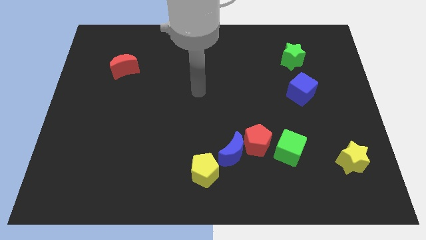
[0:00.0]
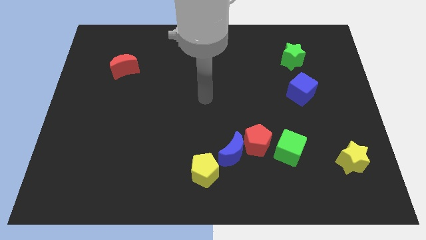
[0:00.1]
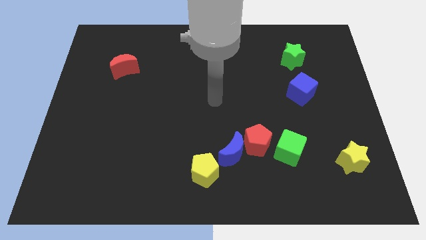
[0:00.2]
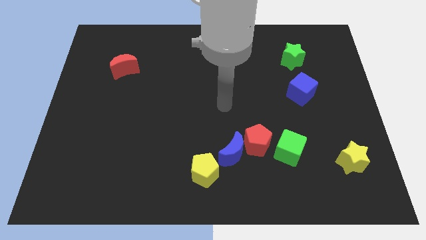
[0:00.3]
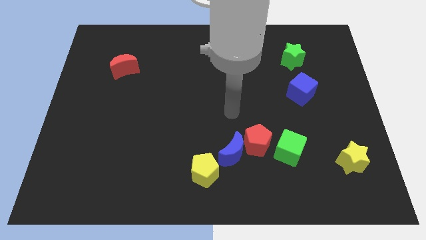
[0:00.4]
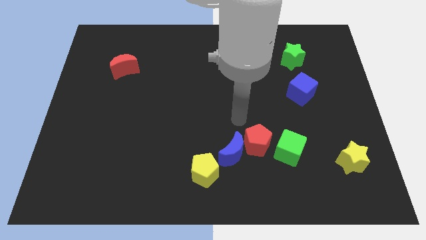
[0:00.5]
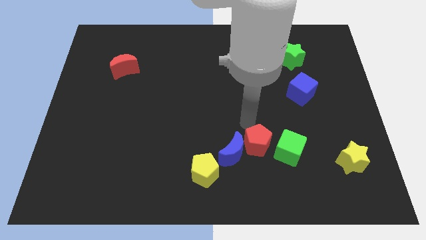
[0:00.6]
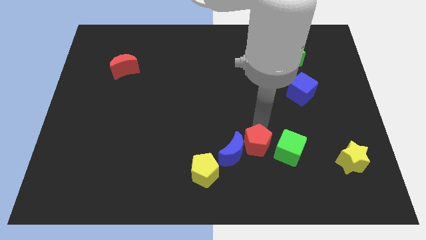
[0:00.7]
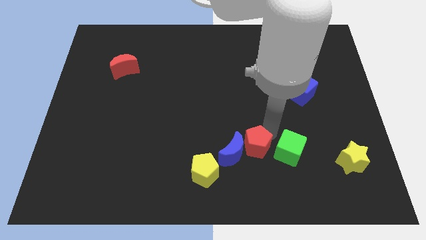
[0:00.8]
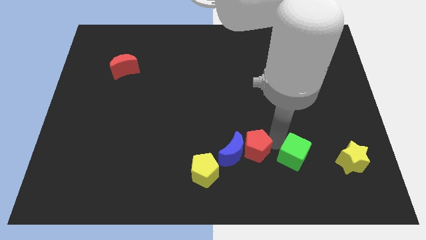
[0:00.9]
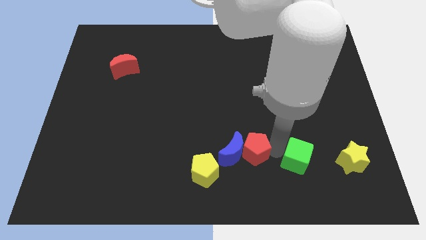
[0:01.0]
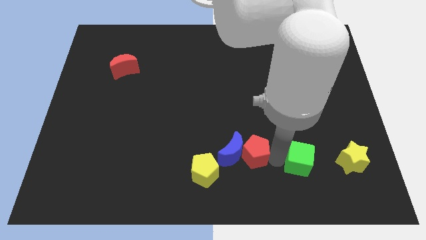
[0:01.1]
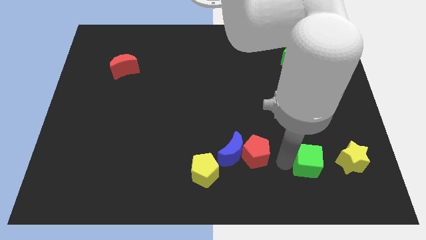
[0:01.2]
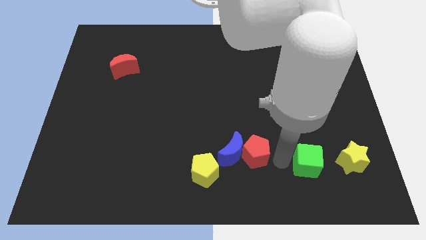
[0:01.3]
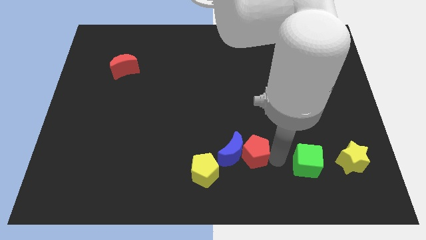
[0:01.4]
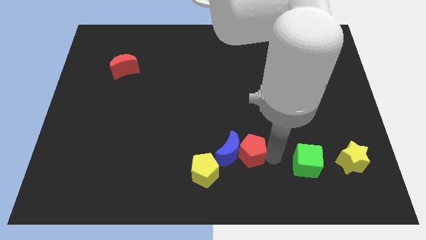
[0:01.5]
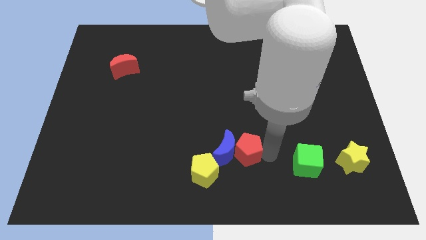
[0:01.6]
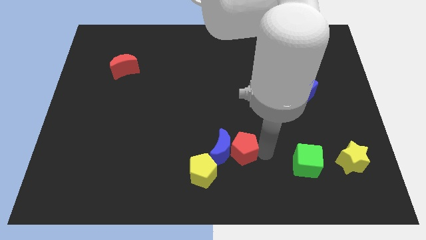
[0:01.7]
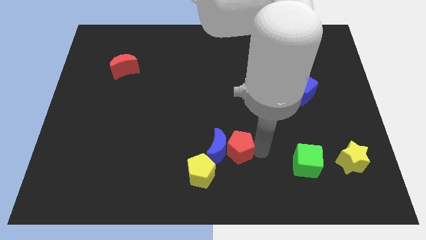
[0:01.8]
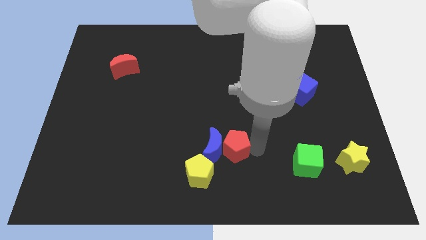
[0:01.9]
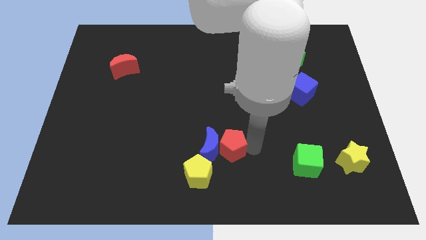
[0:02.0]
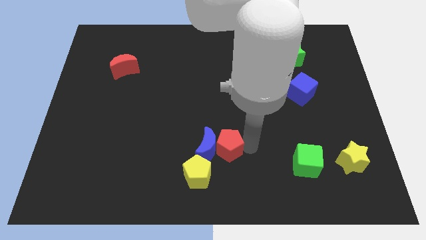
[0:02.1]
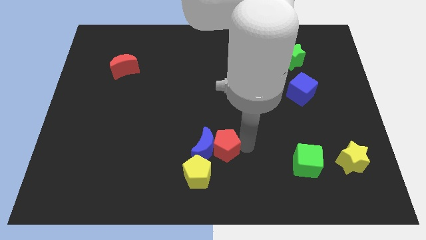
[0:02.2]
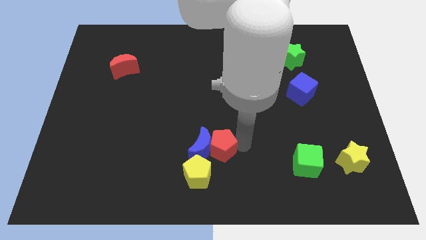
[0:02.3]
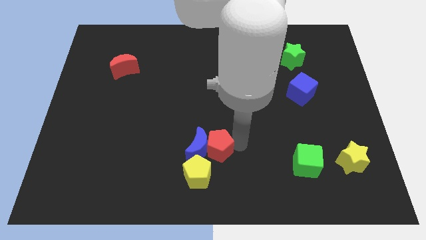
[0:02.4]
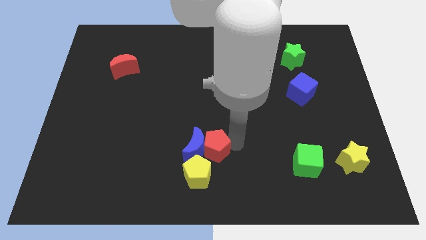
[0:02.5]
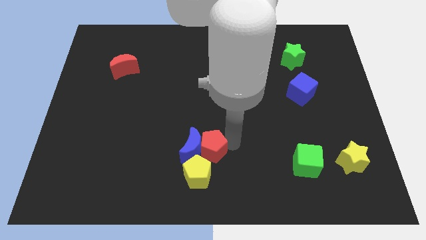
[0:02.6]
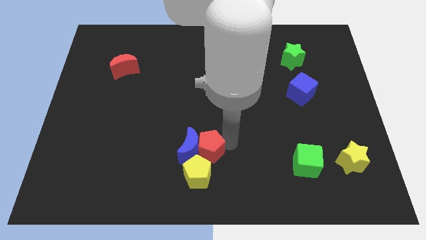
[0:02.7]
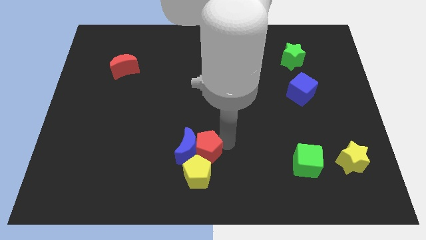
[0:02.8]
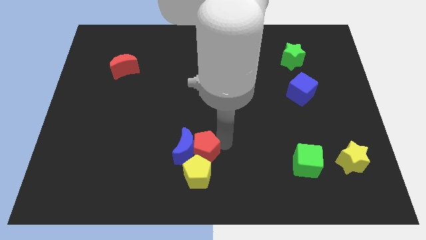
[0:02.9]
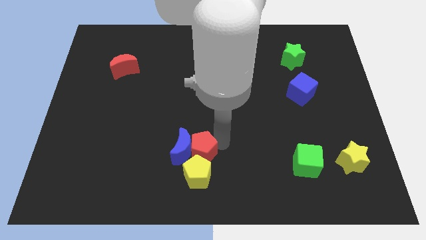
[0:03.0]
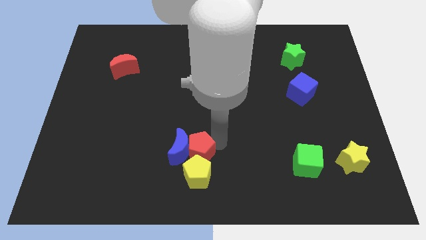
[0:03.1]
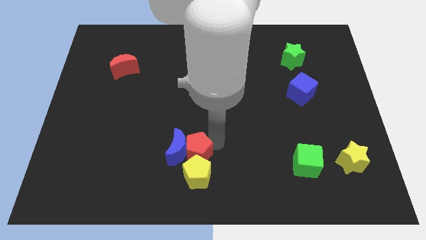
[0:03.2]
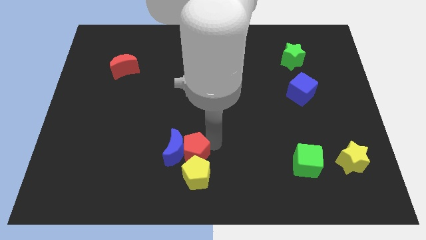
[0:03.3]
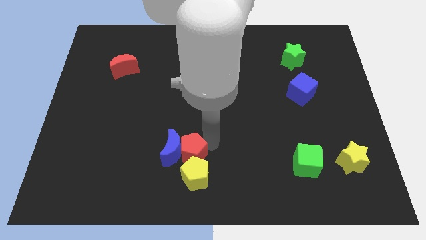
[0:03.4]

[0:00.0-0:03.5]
separate the red pentagon from the blue moon and green cube

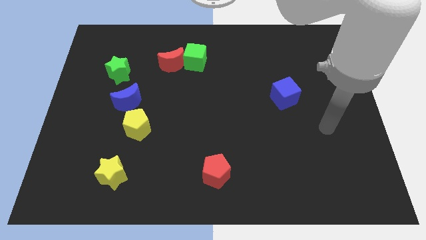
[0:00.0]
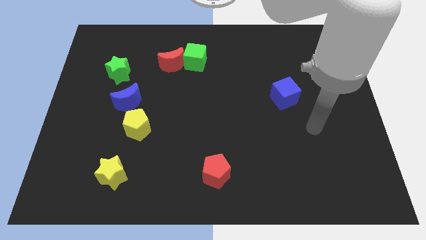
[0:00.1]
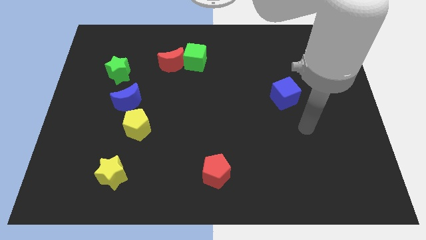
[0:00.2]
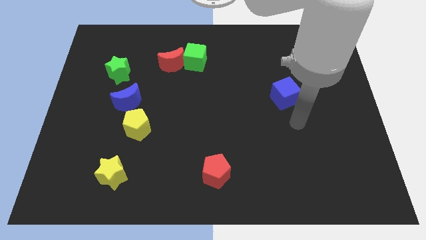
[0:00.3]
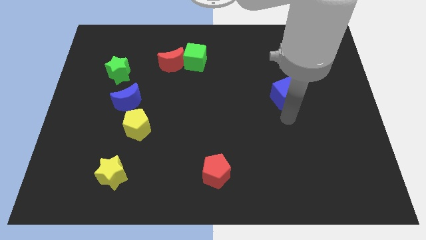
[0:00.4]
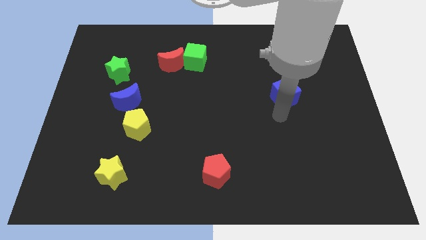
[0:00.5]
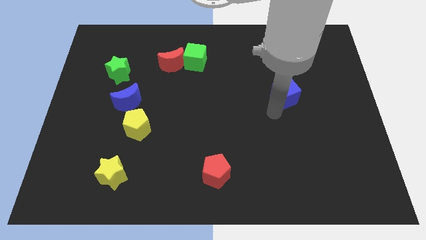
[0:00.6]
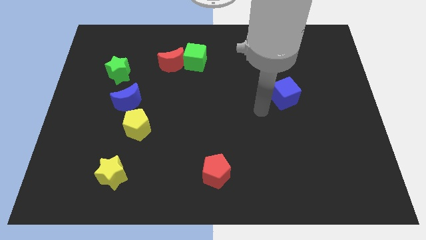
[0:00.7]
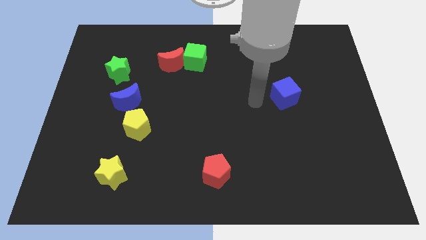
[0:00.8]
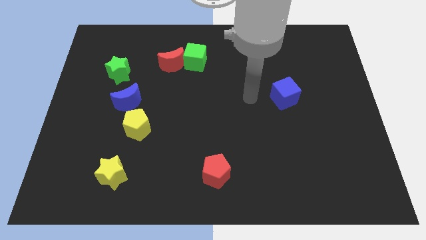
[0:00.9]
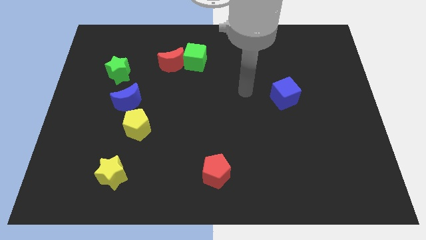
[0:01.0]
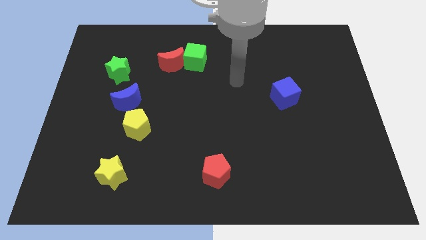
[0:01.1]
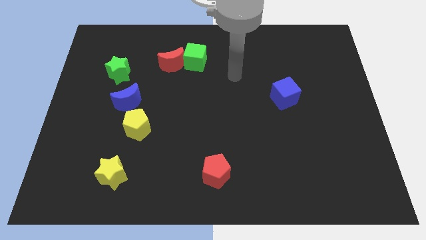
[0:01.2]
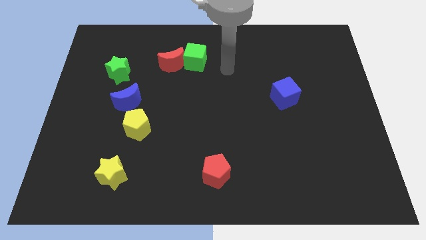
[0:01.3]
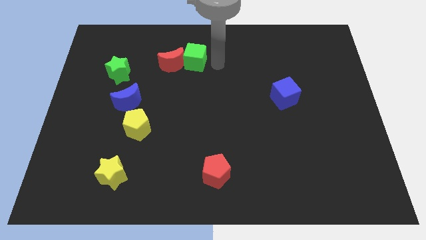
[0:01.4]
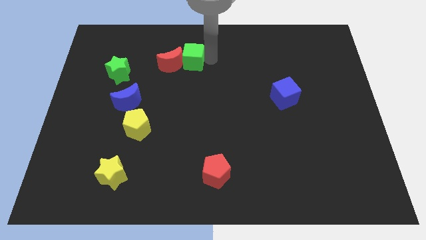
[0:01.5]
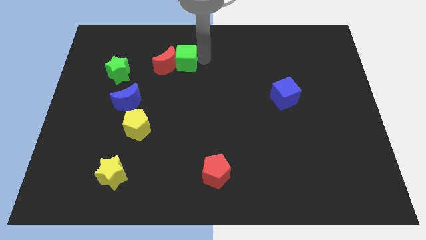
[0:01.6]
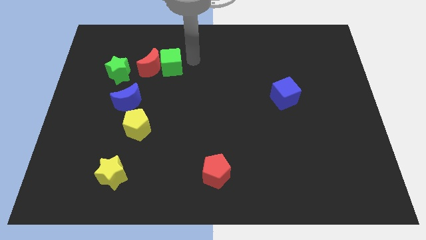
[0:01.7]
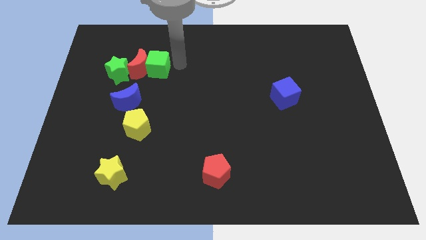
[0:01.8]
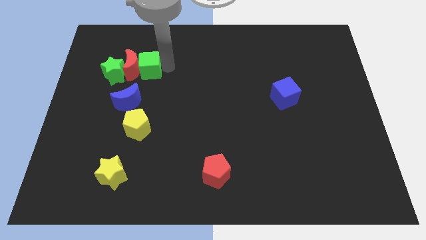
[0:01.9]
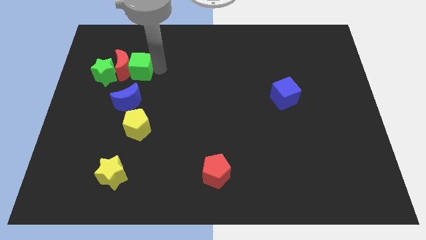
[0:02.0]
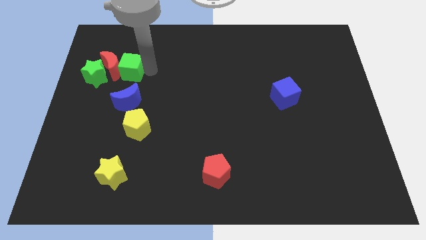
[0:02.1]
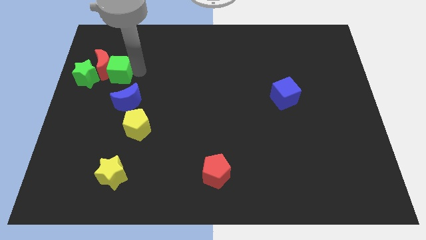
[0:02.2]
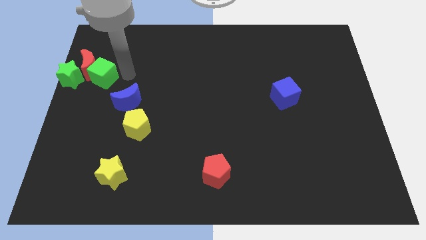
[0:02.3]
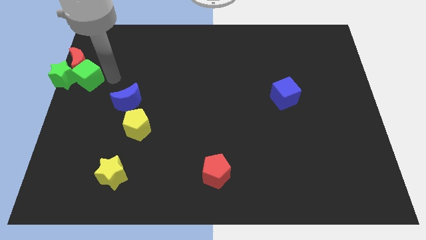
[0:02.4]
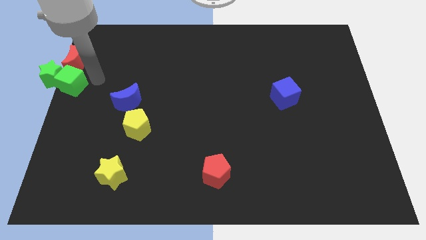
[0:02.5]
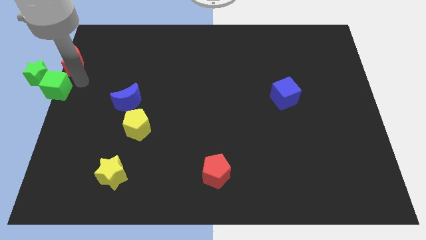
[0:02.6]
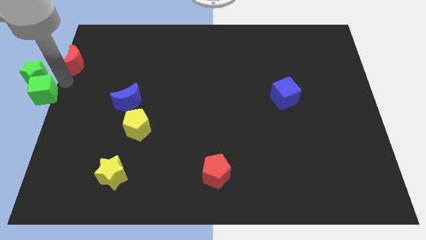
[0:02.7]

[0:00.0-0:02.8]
separate the red moon from the green cube

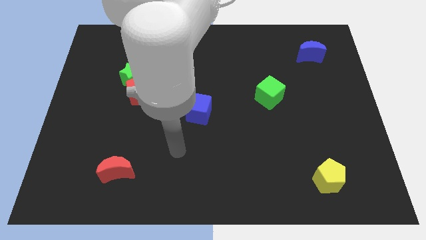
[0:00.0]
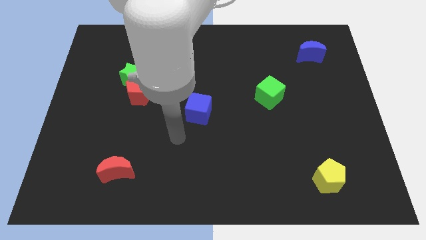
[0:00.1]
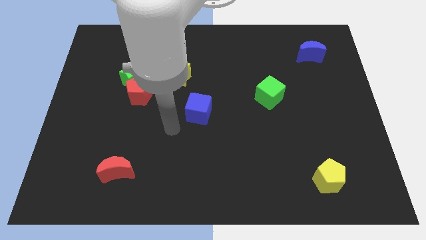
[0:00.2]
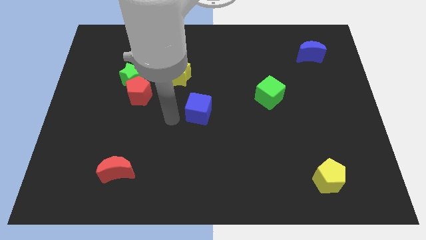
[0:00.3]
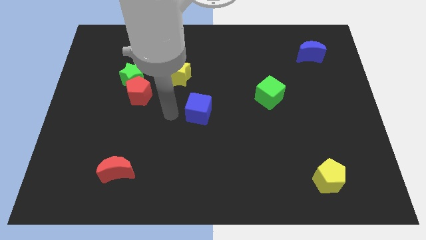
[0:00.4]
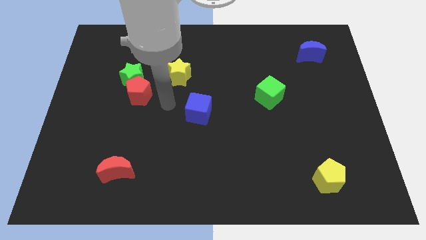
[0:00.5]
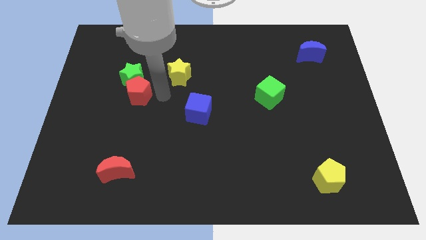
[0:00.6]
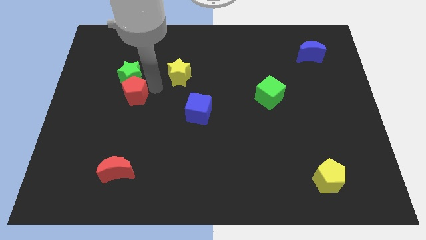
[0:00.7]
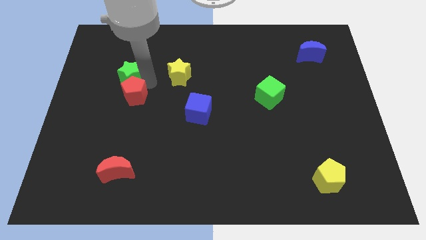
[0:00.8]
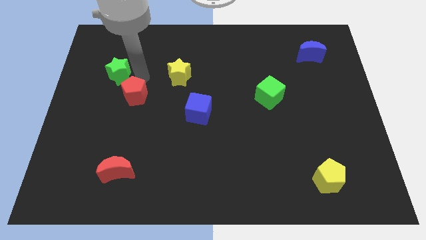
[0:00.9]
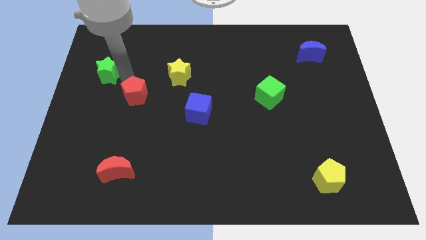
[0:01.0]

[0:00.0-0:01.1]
pull the red pentagon apart from the green star

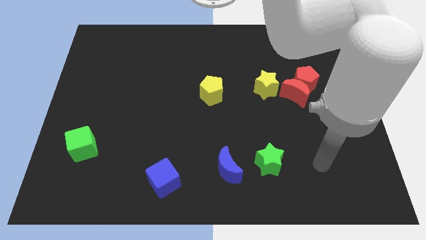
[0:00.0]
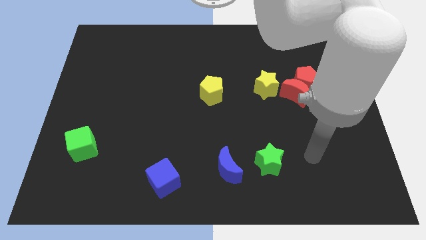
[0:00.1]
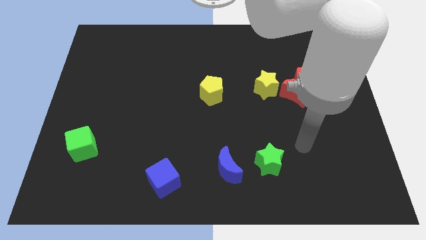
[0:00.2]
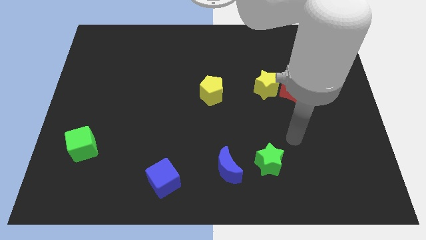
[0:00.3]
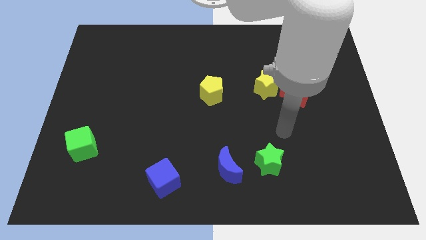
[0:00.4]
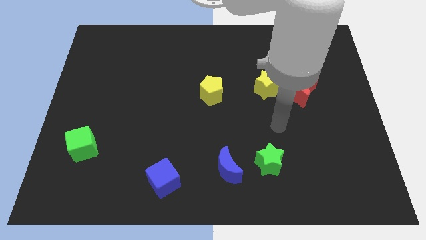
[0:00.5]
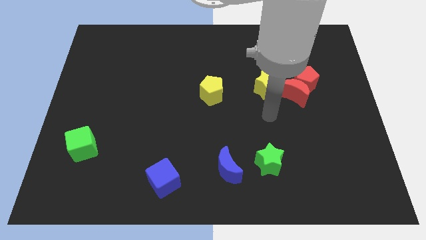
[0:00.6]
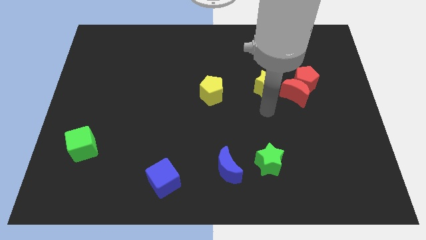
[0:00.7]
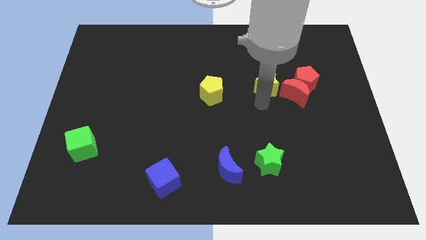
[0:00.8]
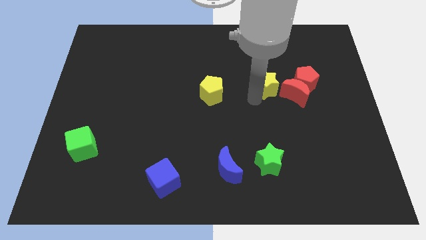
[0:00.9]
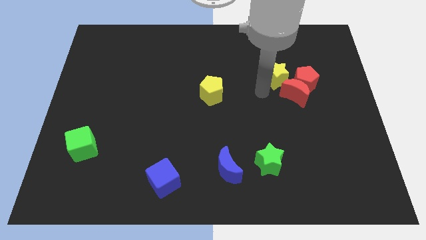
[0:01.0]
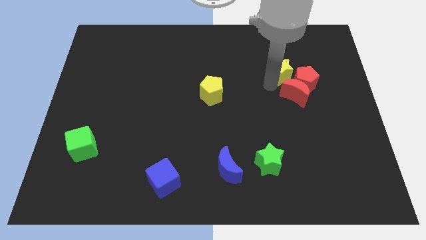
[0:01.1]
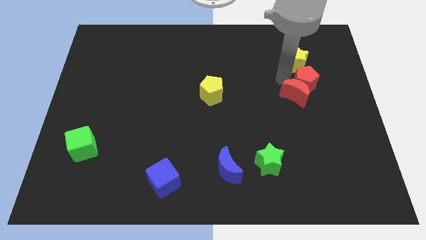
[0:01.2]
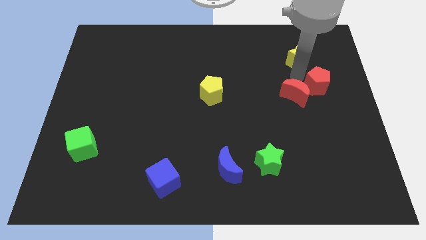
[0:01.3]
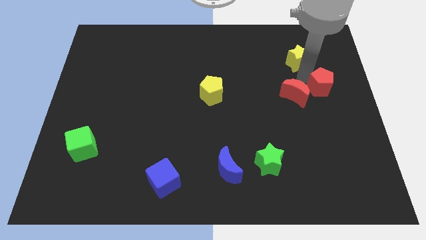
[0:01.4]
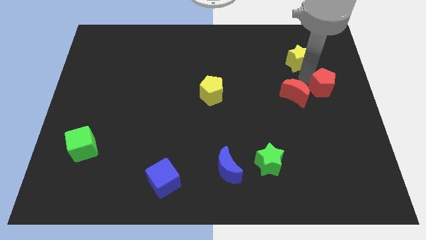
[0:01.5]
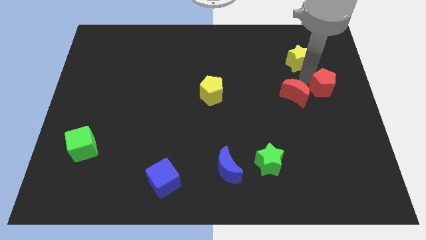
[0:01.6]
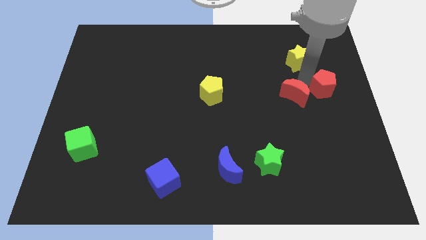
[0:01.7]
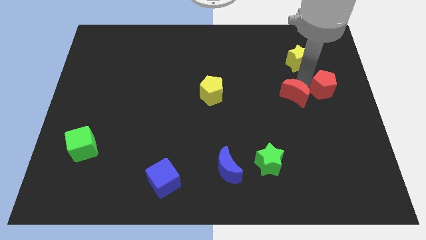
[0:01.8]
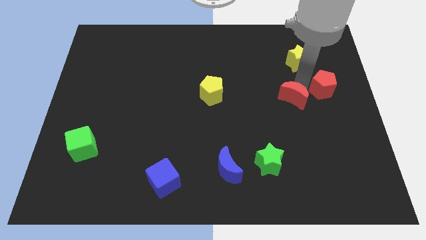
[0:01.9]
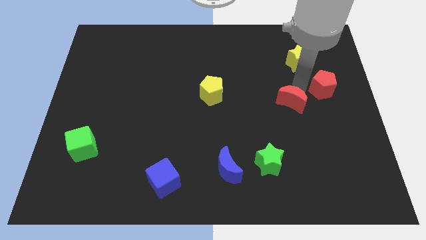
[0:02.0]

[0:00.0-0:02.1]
pull the red moon apart from the red pentagon and yellow star

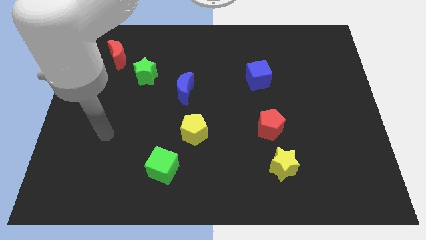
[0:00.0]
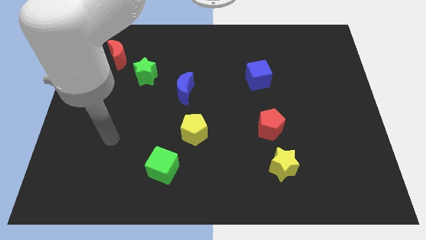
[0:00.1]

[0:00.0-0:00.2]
move the red pentagon away from the yellow star
